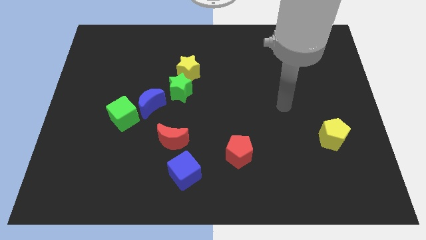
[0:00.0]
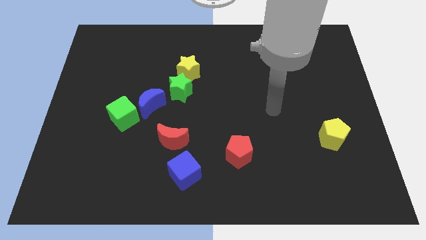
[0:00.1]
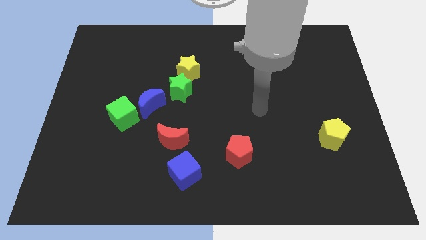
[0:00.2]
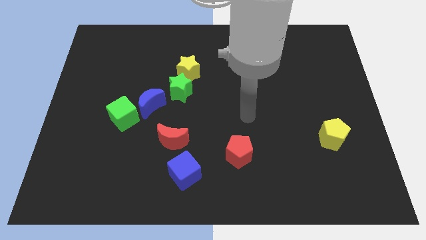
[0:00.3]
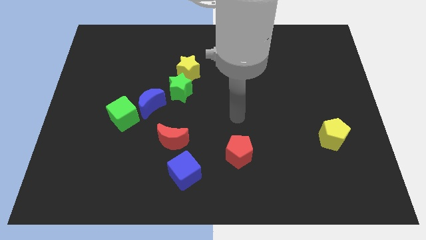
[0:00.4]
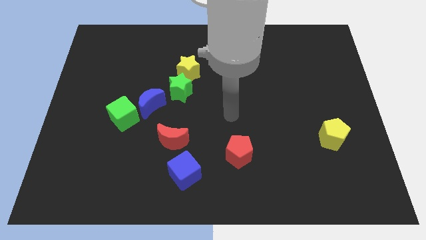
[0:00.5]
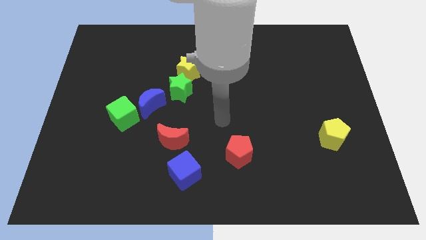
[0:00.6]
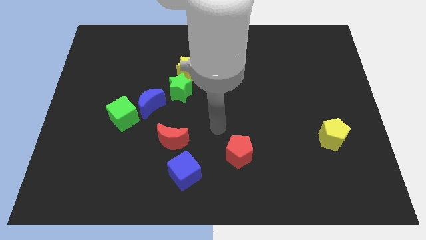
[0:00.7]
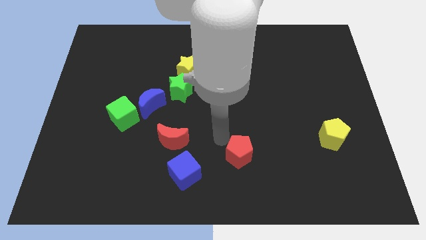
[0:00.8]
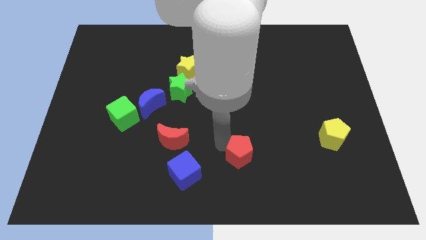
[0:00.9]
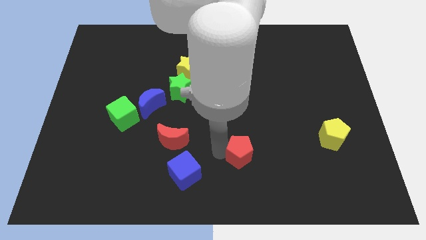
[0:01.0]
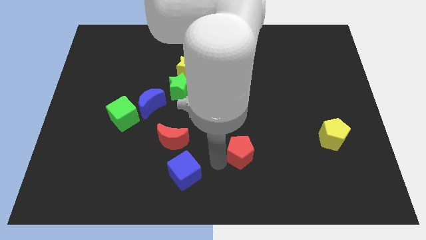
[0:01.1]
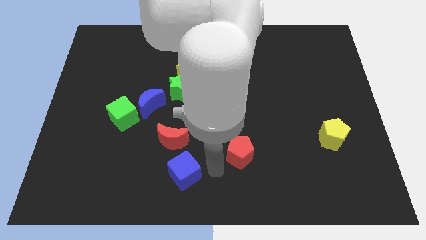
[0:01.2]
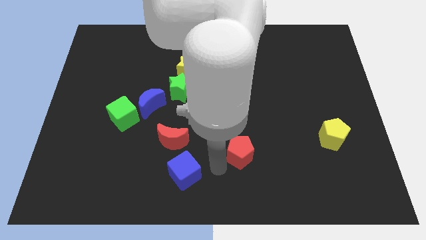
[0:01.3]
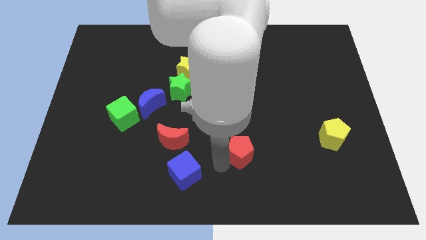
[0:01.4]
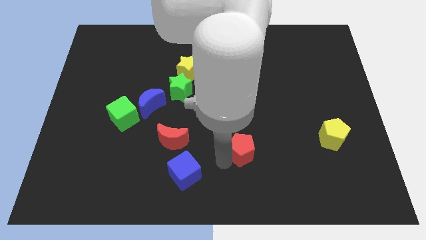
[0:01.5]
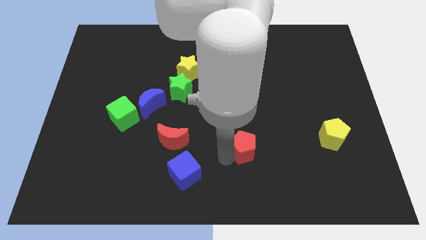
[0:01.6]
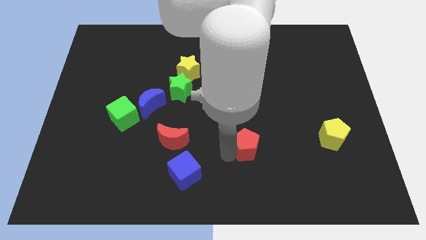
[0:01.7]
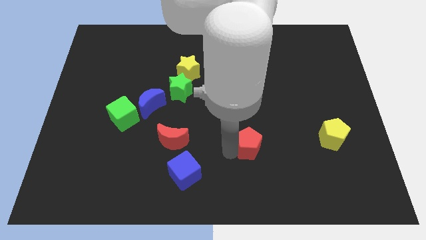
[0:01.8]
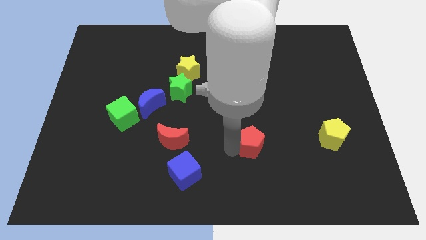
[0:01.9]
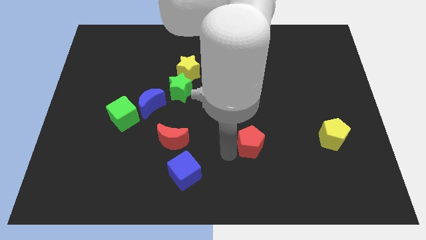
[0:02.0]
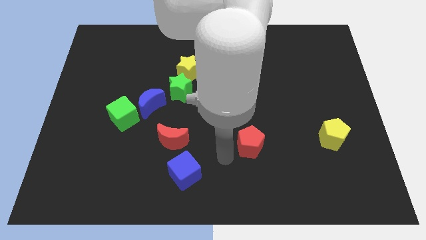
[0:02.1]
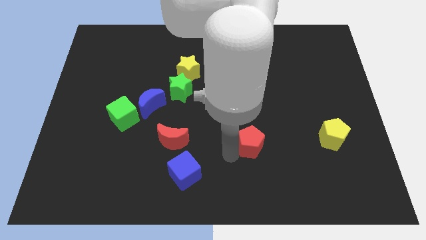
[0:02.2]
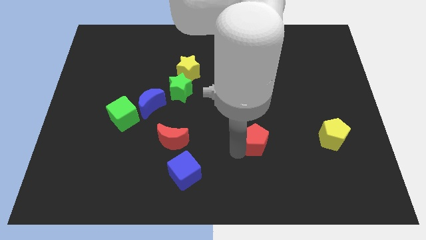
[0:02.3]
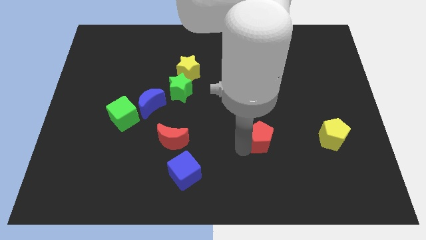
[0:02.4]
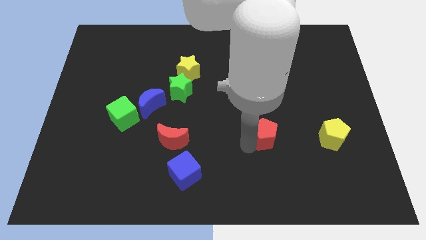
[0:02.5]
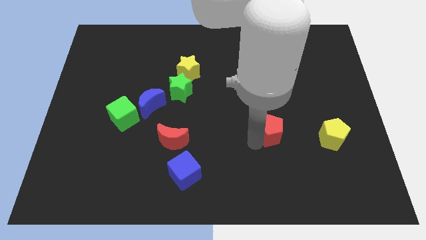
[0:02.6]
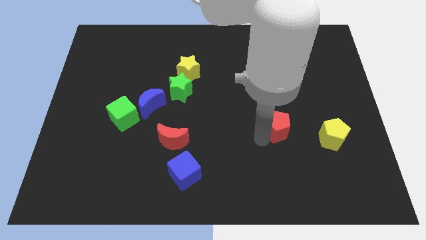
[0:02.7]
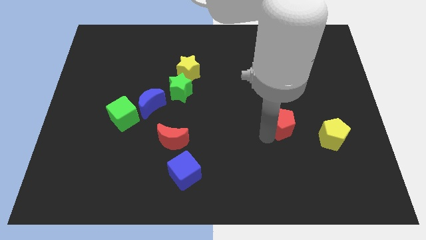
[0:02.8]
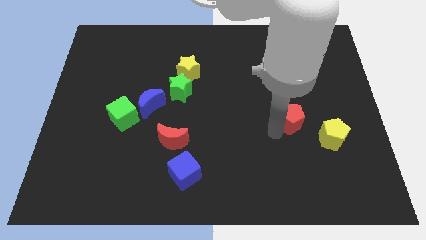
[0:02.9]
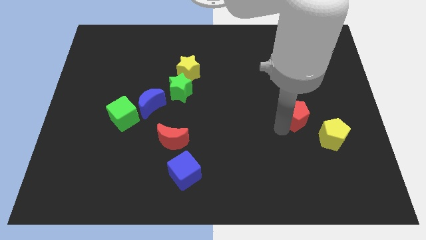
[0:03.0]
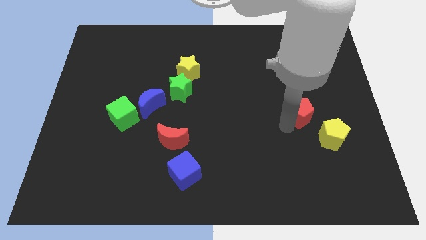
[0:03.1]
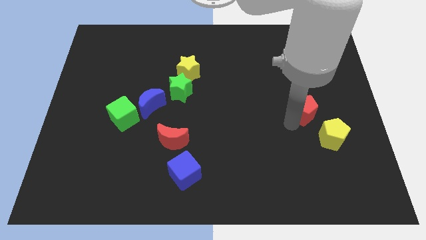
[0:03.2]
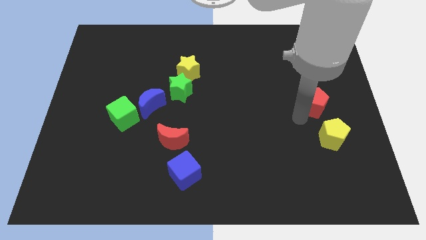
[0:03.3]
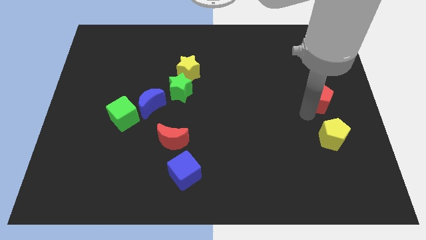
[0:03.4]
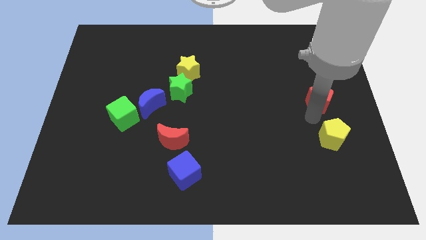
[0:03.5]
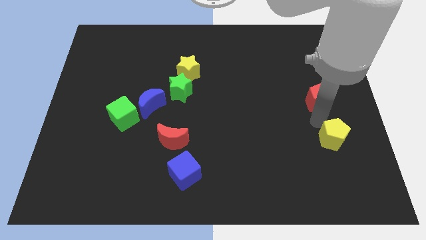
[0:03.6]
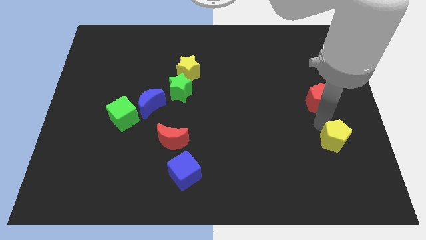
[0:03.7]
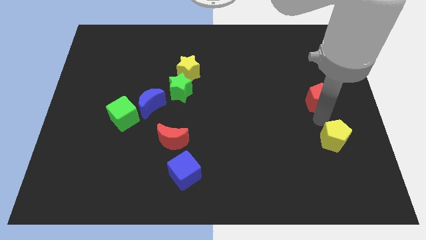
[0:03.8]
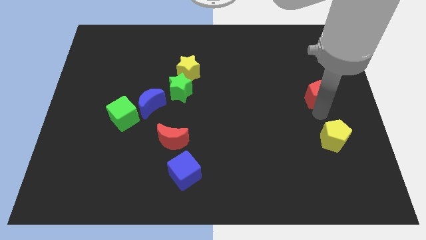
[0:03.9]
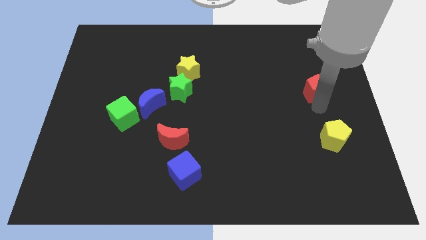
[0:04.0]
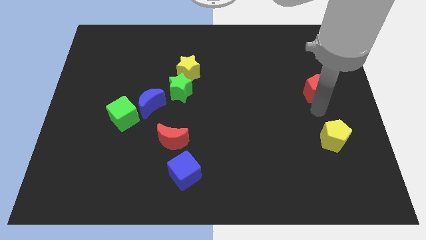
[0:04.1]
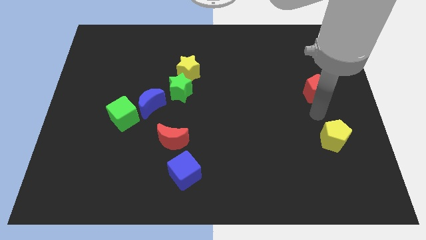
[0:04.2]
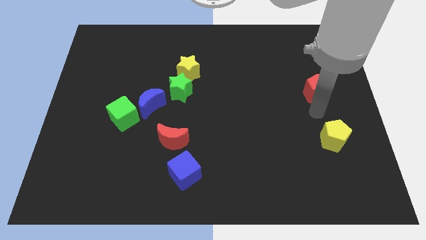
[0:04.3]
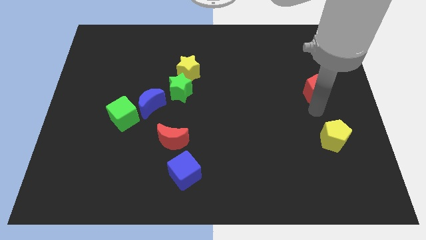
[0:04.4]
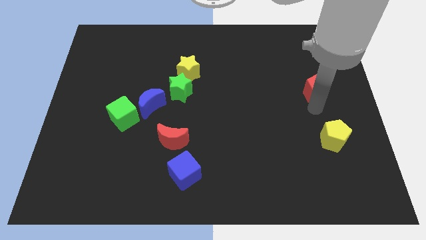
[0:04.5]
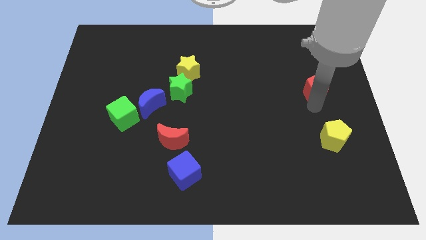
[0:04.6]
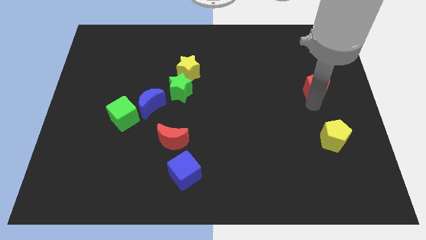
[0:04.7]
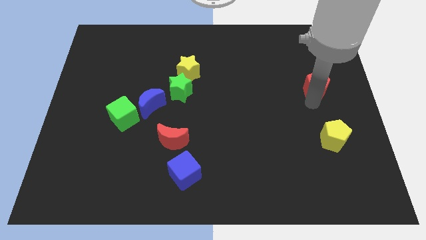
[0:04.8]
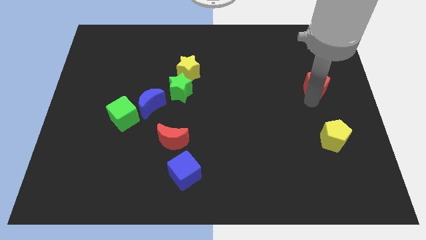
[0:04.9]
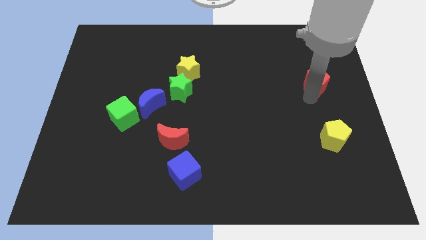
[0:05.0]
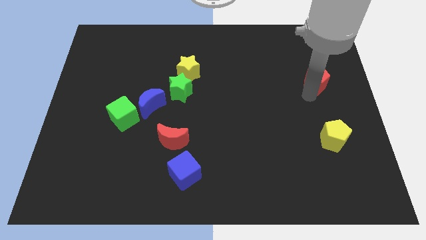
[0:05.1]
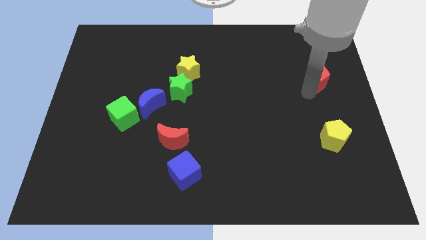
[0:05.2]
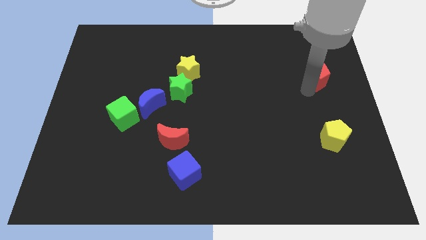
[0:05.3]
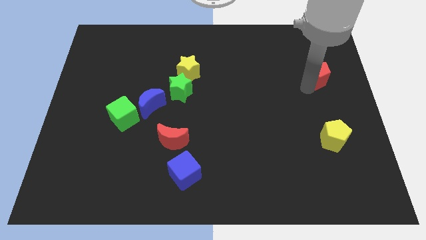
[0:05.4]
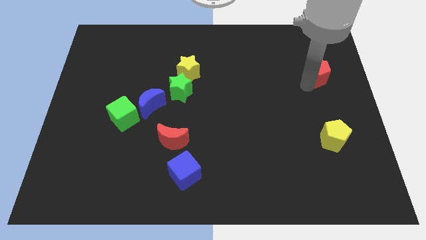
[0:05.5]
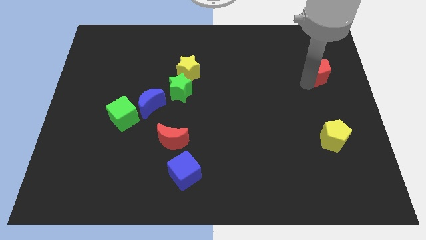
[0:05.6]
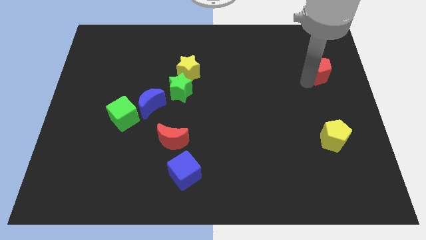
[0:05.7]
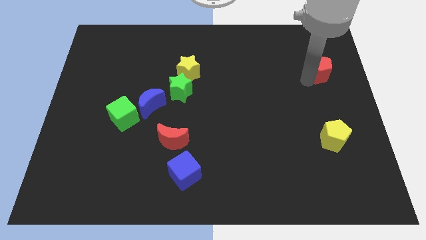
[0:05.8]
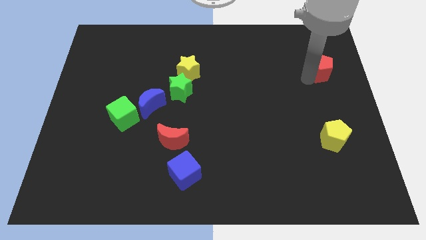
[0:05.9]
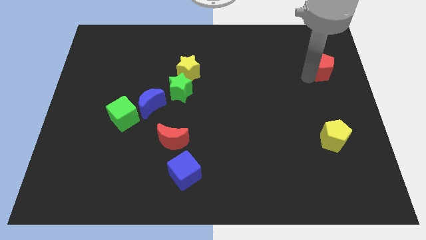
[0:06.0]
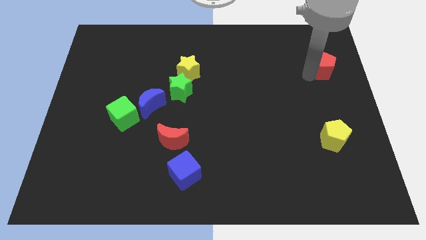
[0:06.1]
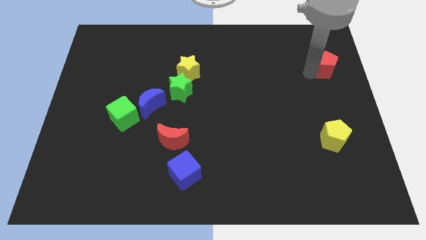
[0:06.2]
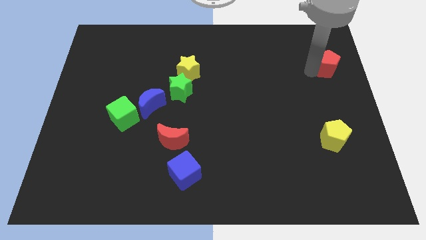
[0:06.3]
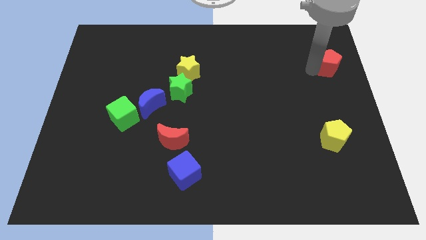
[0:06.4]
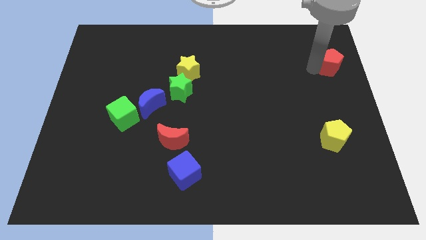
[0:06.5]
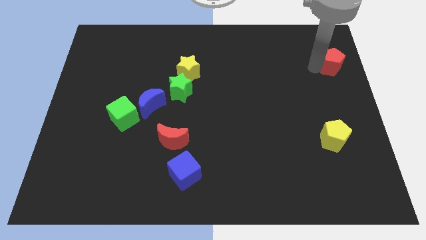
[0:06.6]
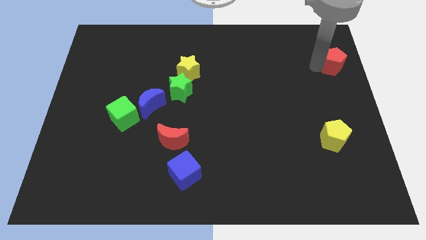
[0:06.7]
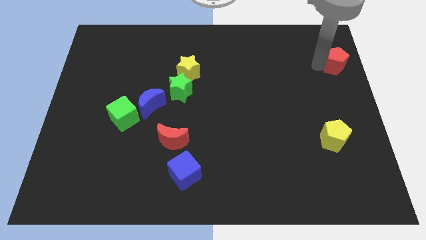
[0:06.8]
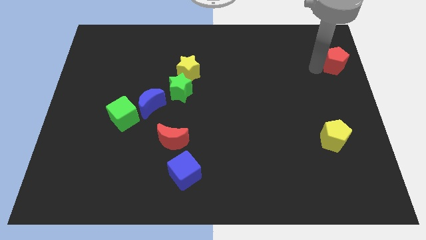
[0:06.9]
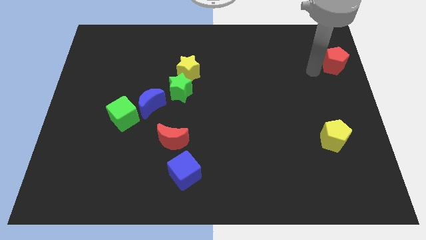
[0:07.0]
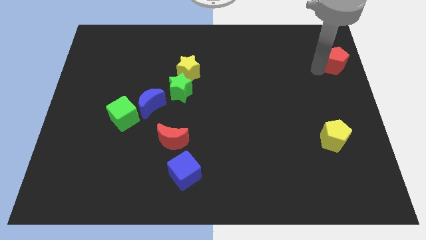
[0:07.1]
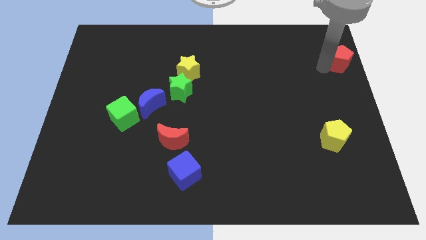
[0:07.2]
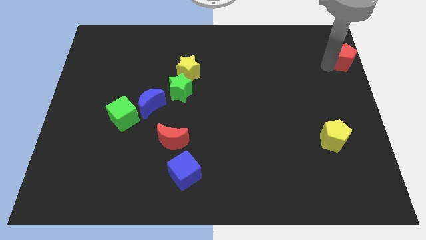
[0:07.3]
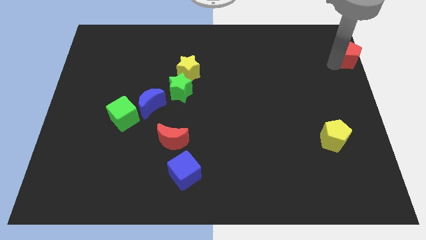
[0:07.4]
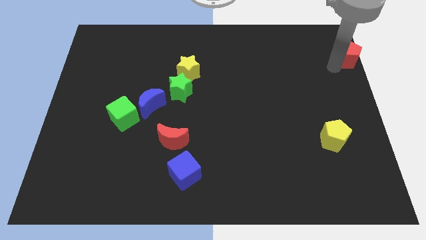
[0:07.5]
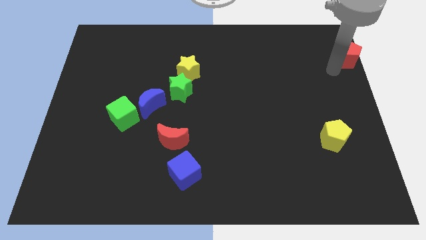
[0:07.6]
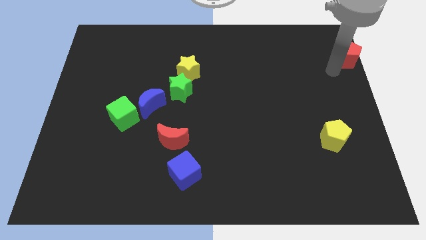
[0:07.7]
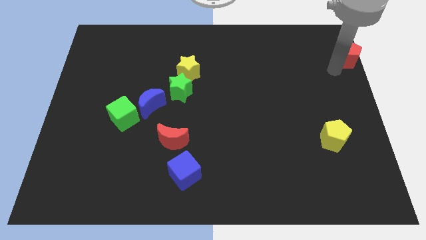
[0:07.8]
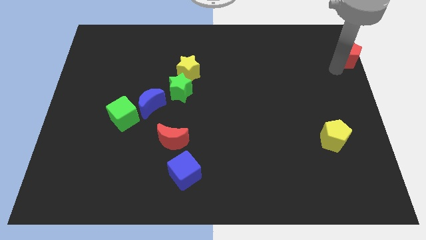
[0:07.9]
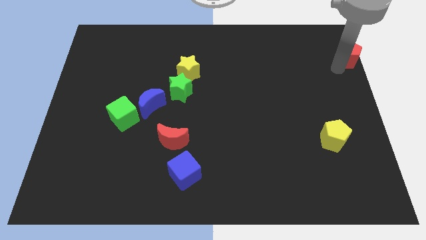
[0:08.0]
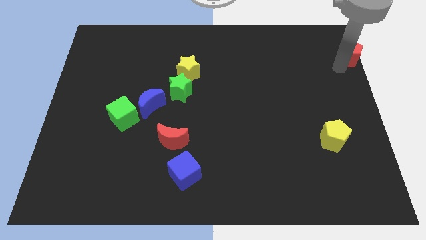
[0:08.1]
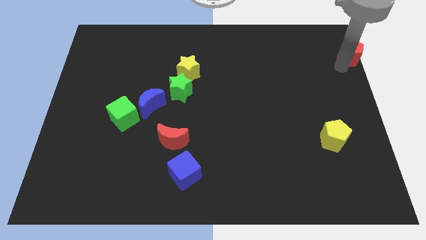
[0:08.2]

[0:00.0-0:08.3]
slide the red pentagon to the top right of the board
